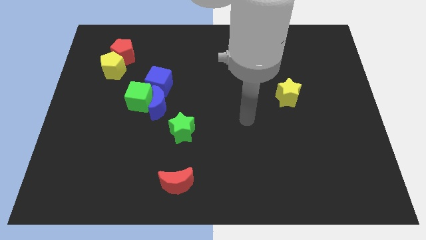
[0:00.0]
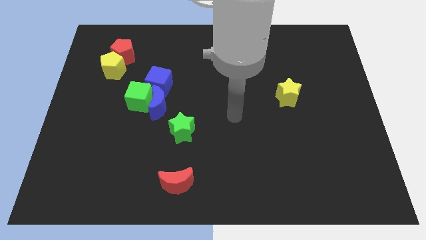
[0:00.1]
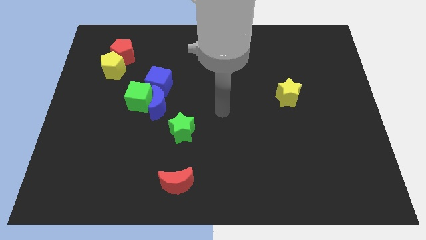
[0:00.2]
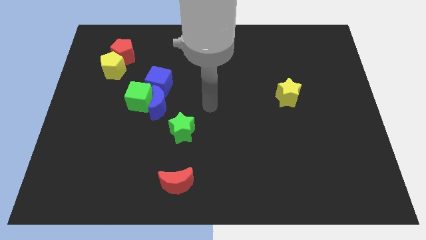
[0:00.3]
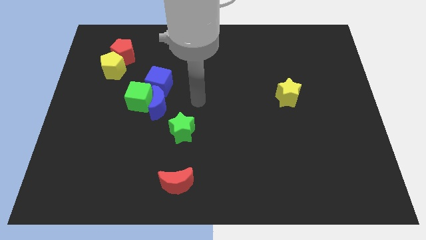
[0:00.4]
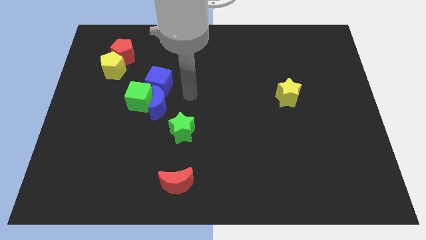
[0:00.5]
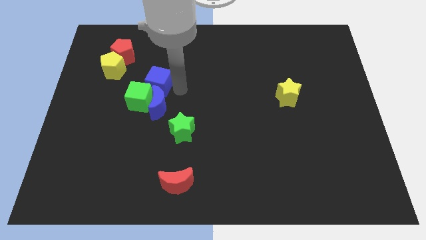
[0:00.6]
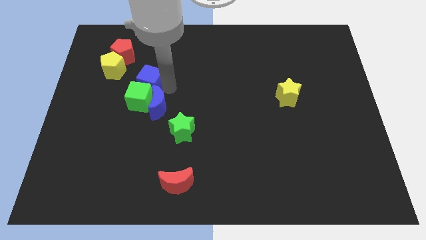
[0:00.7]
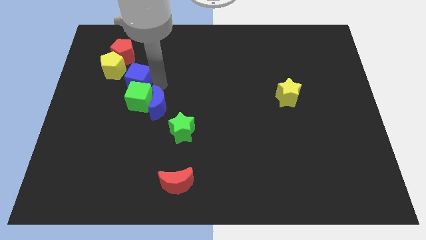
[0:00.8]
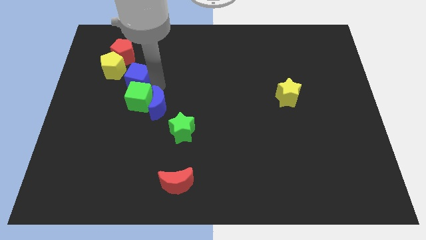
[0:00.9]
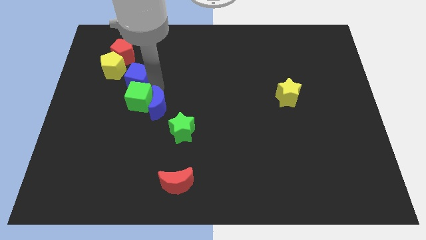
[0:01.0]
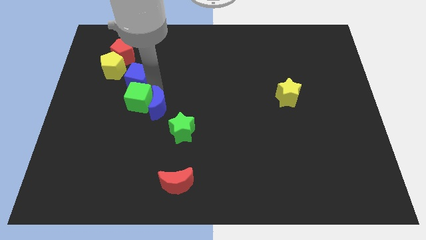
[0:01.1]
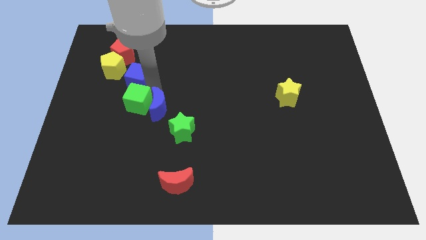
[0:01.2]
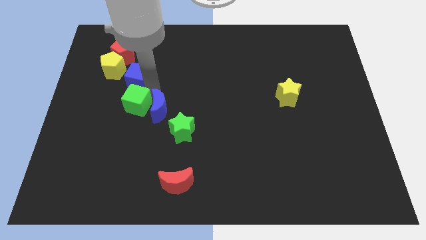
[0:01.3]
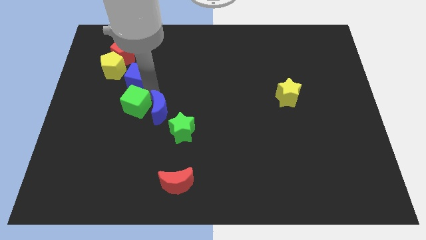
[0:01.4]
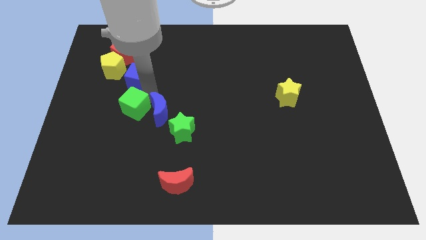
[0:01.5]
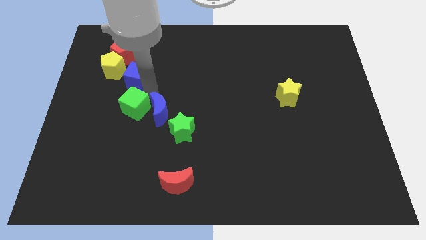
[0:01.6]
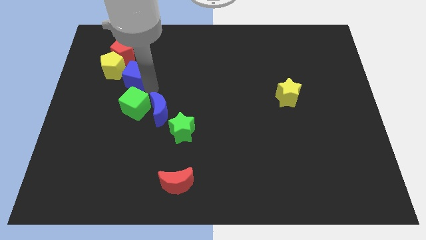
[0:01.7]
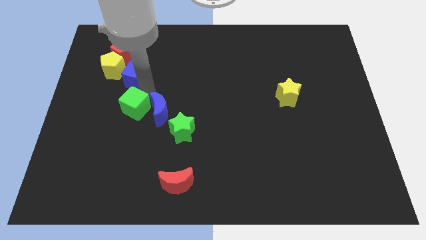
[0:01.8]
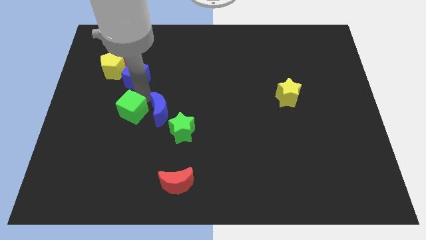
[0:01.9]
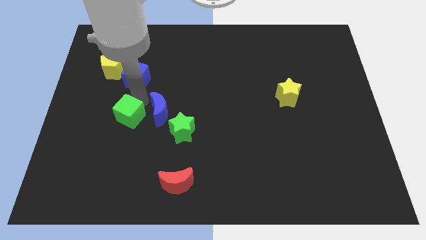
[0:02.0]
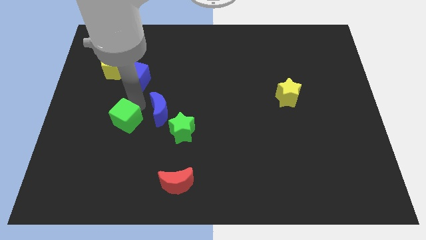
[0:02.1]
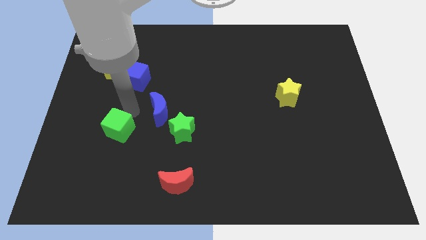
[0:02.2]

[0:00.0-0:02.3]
move the green cube down somewhat

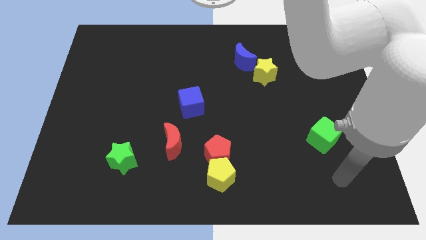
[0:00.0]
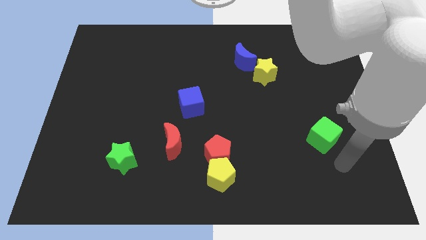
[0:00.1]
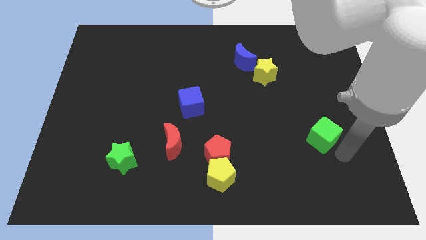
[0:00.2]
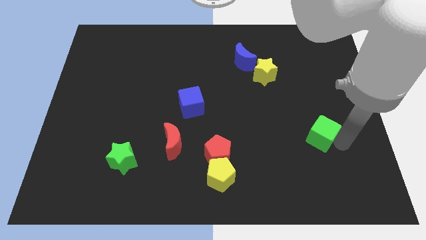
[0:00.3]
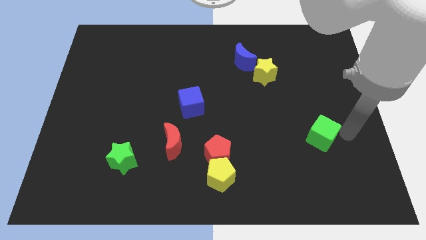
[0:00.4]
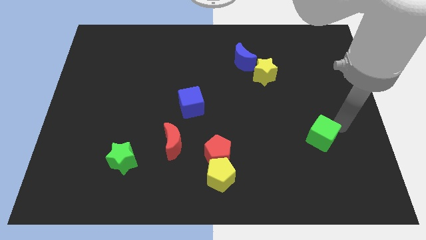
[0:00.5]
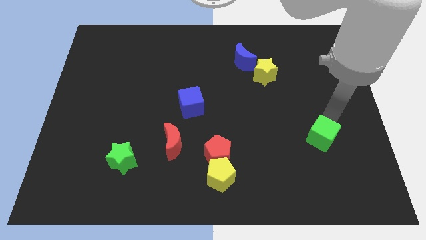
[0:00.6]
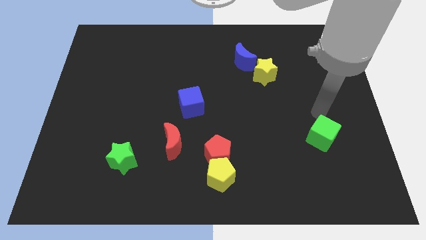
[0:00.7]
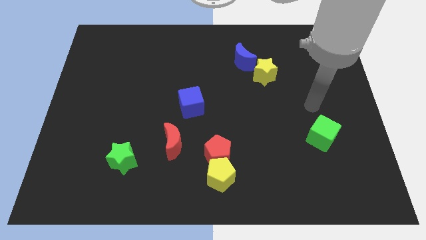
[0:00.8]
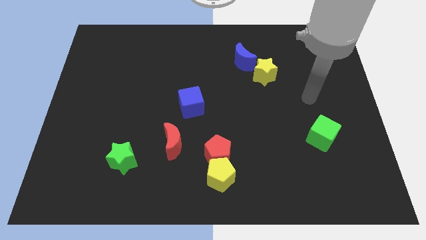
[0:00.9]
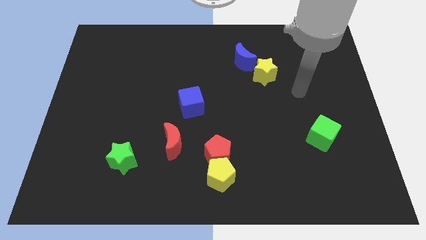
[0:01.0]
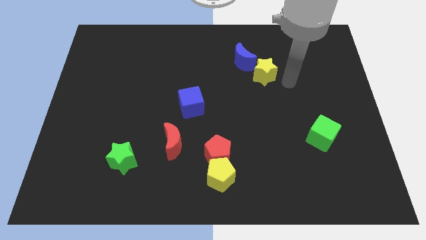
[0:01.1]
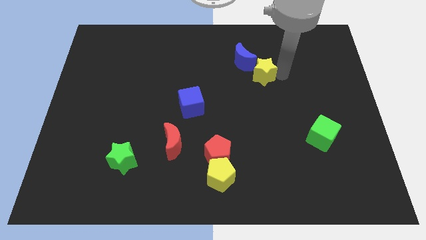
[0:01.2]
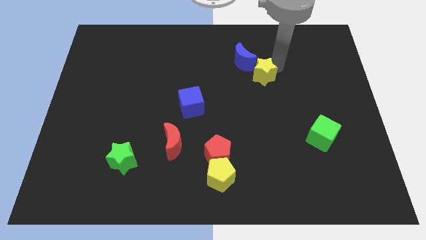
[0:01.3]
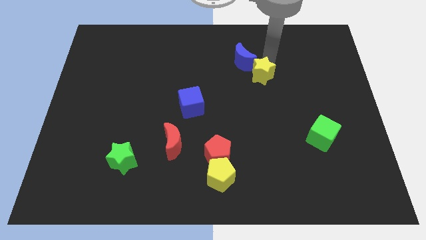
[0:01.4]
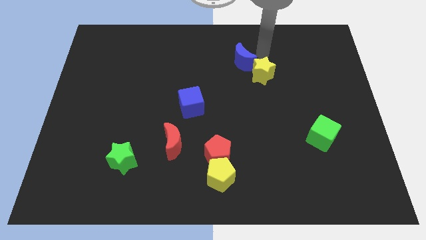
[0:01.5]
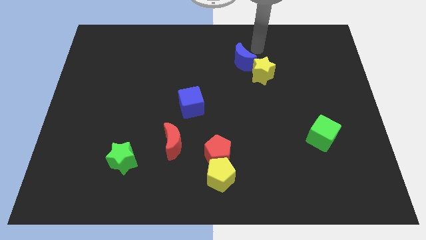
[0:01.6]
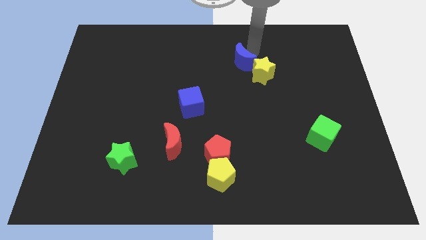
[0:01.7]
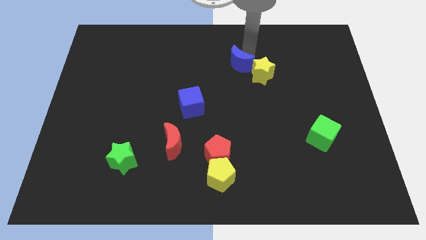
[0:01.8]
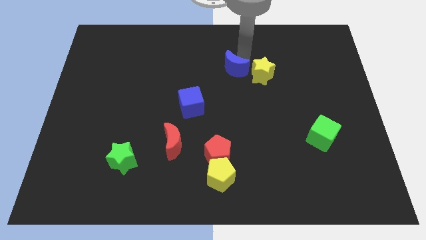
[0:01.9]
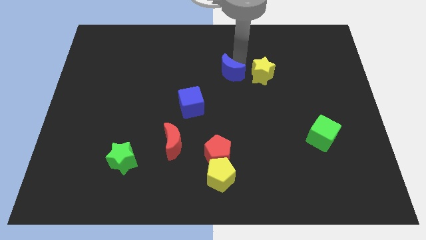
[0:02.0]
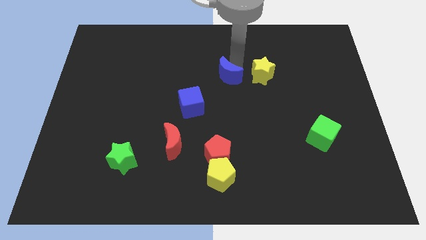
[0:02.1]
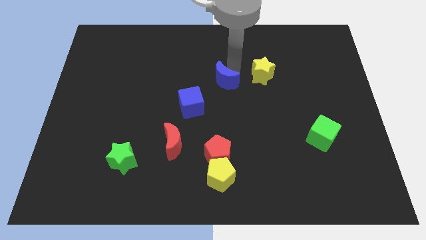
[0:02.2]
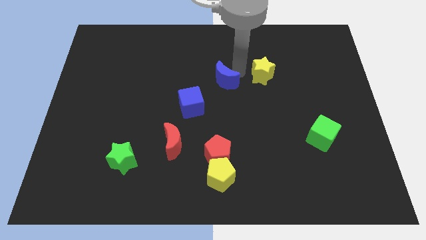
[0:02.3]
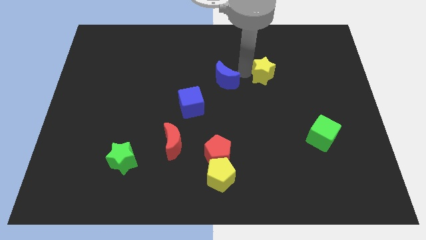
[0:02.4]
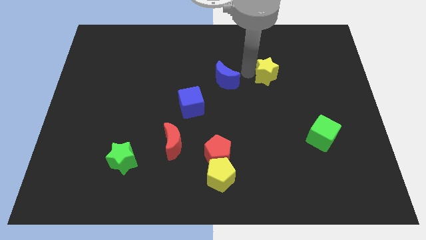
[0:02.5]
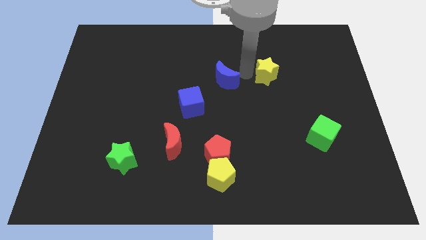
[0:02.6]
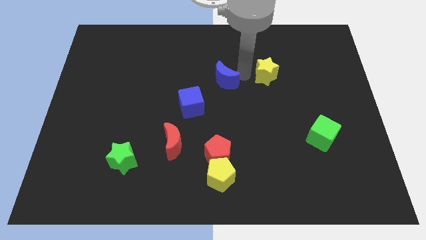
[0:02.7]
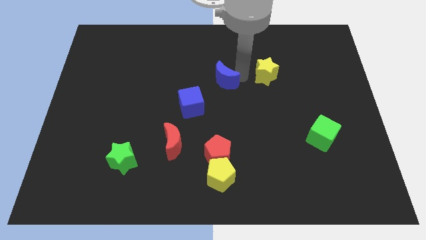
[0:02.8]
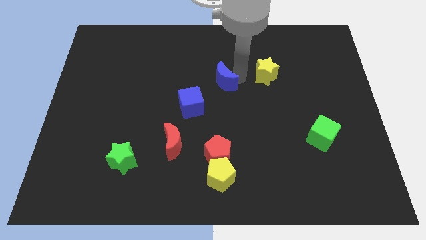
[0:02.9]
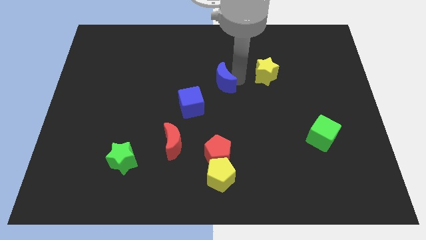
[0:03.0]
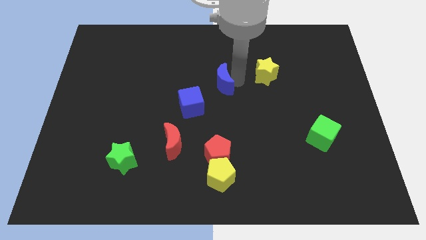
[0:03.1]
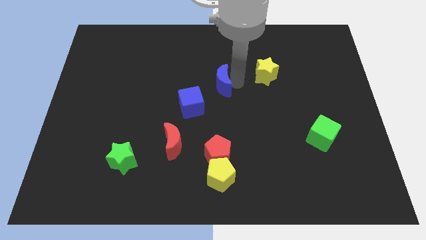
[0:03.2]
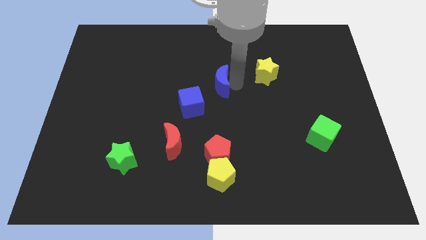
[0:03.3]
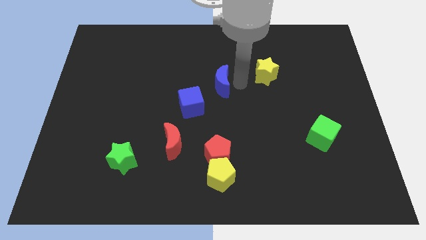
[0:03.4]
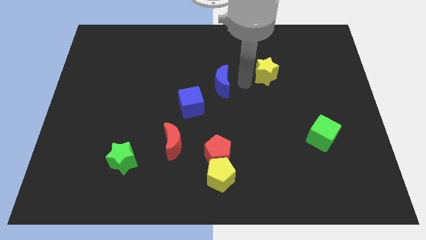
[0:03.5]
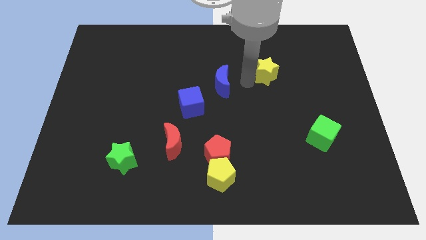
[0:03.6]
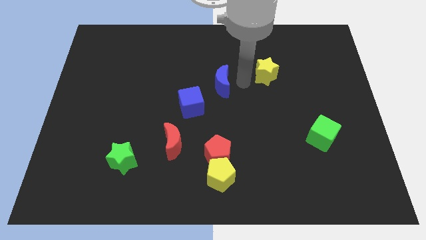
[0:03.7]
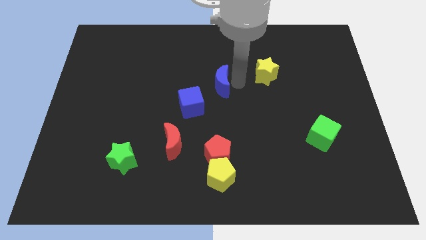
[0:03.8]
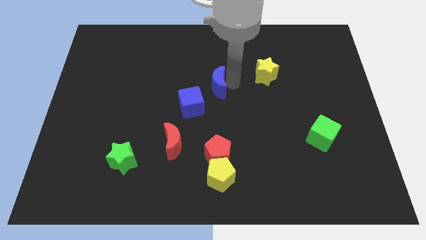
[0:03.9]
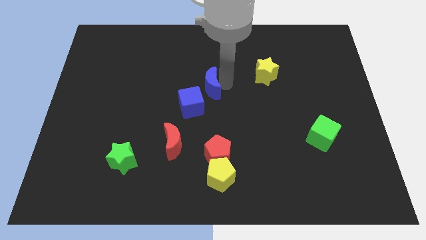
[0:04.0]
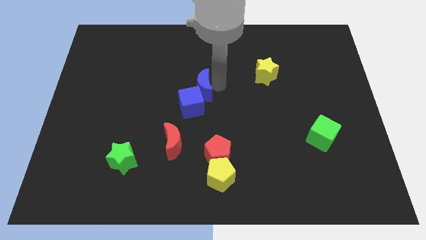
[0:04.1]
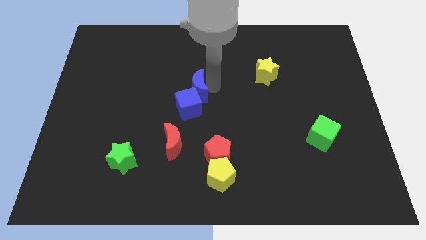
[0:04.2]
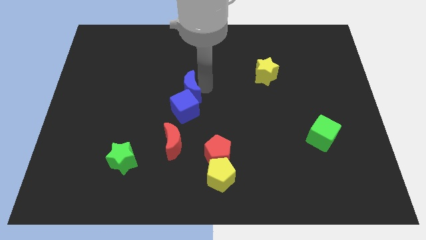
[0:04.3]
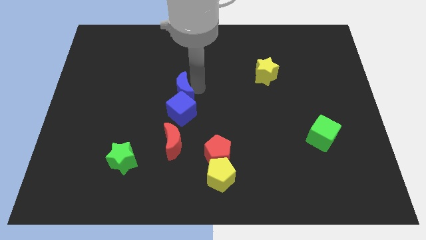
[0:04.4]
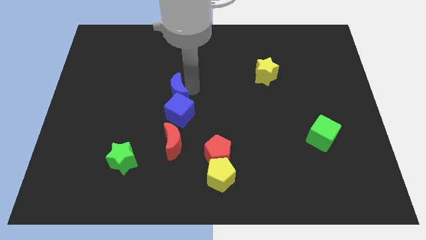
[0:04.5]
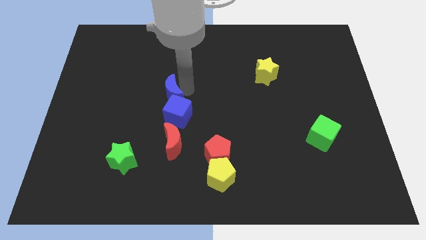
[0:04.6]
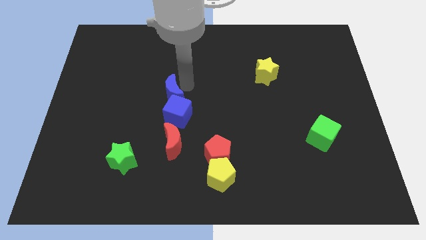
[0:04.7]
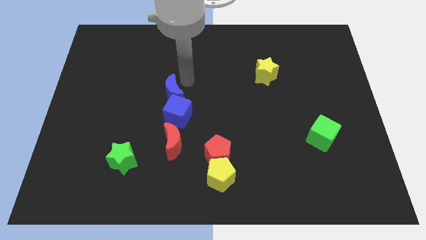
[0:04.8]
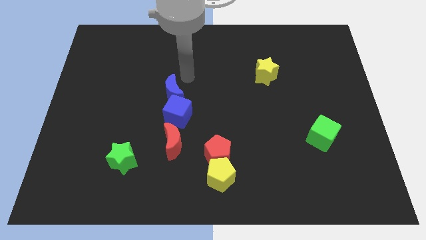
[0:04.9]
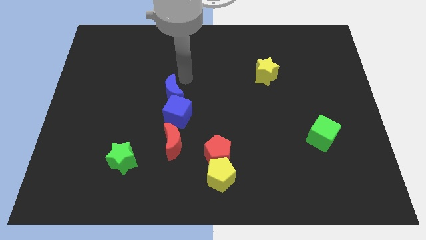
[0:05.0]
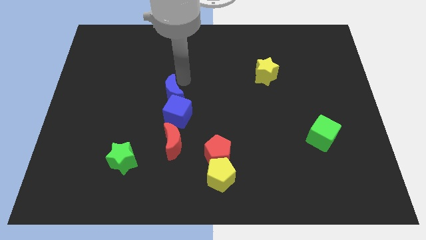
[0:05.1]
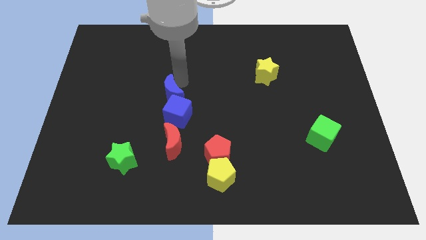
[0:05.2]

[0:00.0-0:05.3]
push the blue moon diagonally downwards and to the left

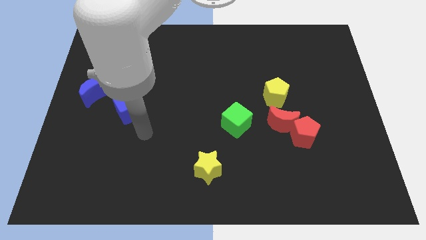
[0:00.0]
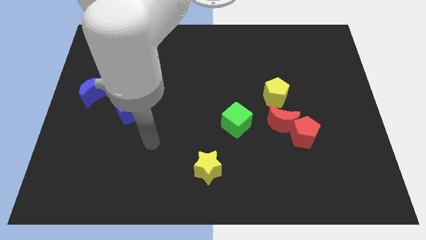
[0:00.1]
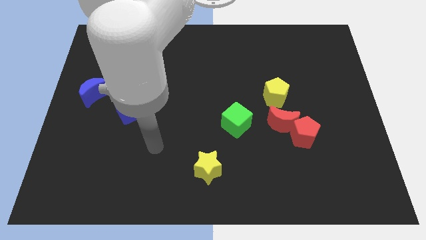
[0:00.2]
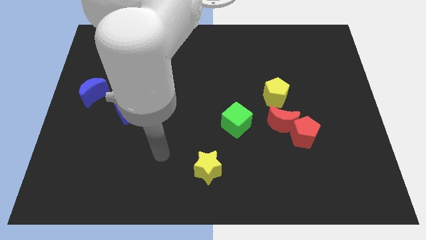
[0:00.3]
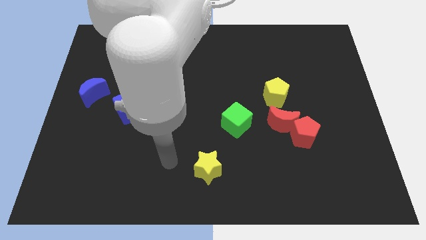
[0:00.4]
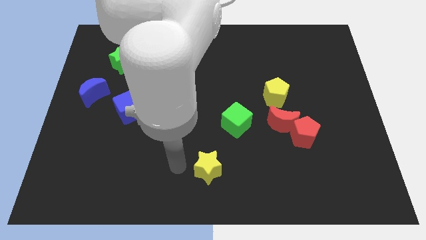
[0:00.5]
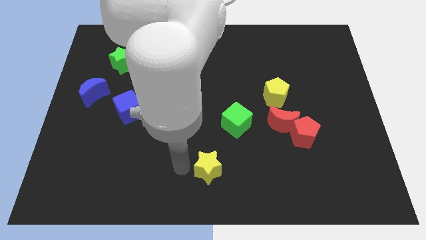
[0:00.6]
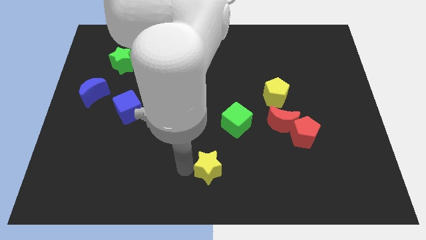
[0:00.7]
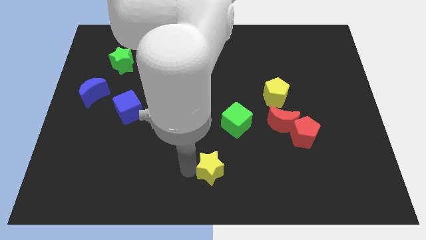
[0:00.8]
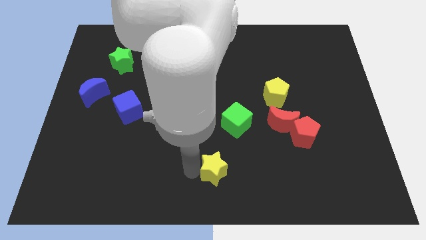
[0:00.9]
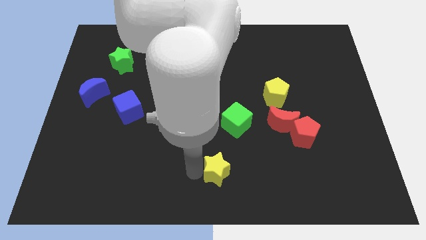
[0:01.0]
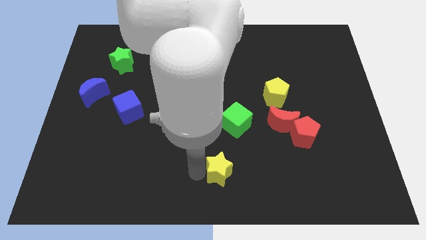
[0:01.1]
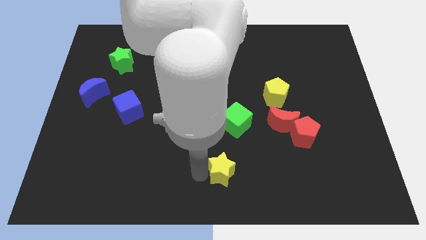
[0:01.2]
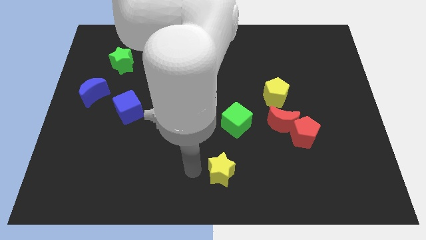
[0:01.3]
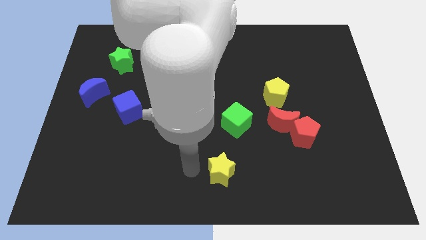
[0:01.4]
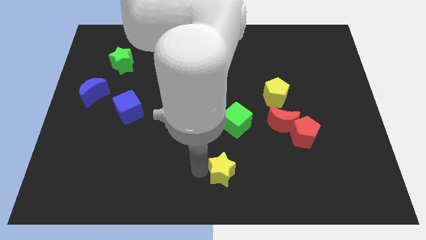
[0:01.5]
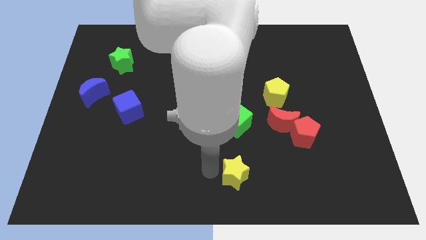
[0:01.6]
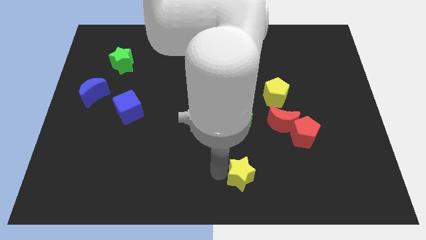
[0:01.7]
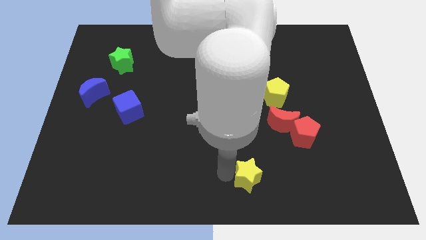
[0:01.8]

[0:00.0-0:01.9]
slightly push the yellow star right
